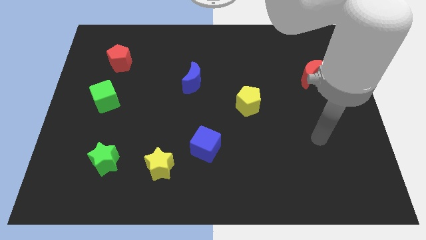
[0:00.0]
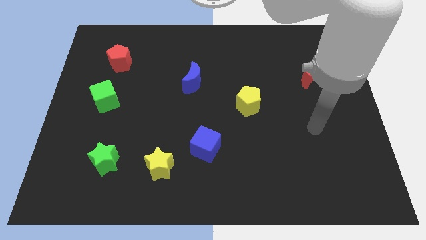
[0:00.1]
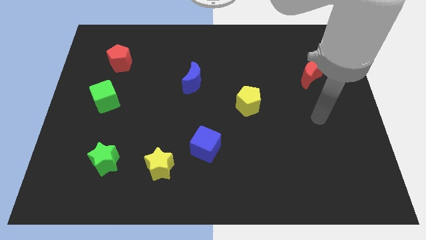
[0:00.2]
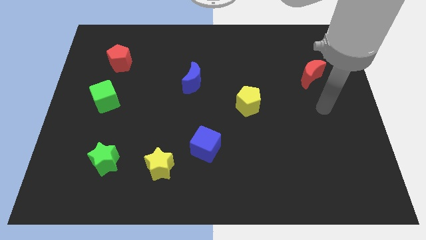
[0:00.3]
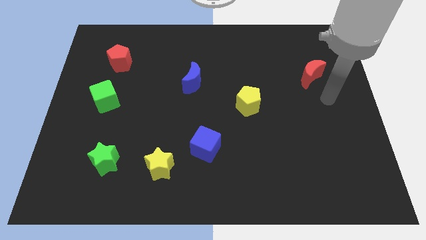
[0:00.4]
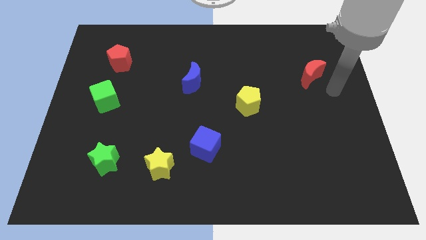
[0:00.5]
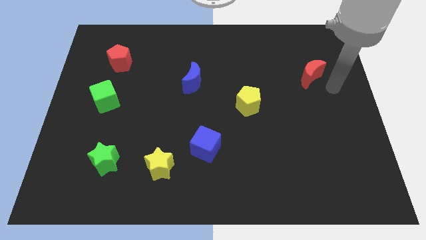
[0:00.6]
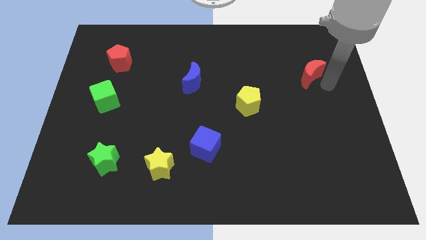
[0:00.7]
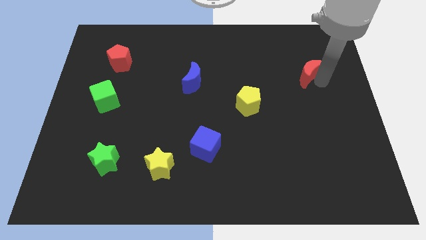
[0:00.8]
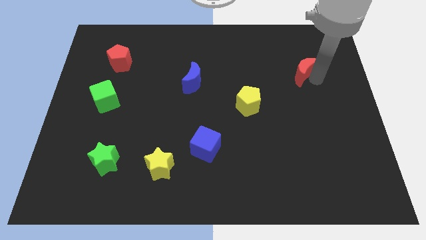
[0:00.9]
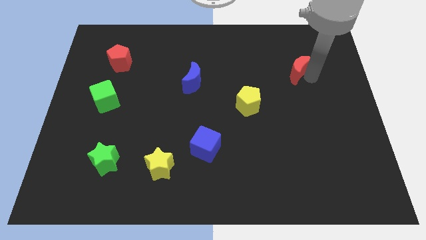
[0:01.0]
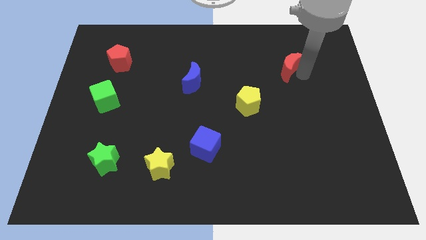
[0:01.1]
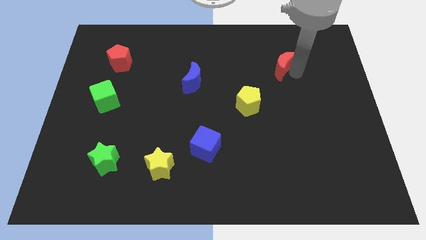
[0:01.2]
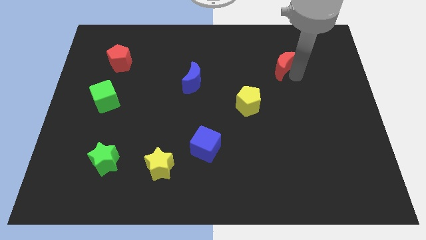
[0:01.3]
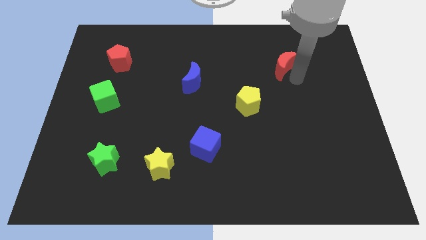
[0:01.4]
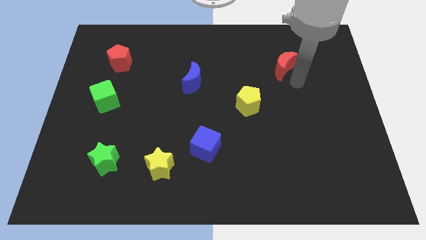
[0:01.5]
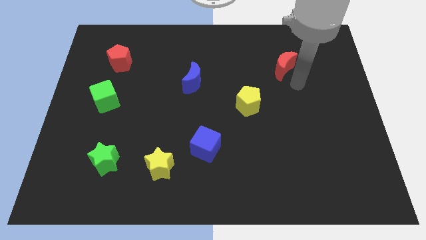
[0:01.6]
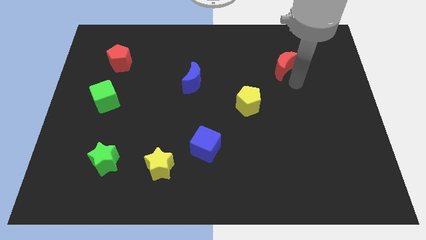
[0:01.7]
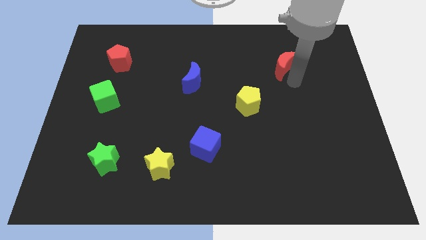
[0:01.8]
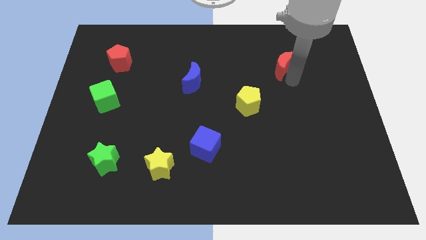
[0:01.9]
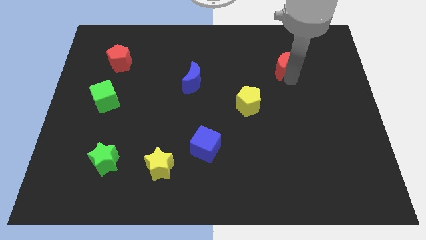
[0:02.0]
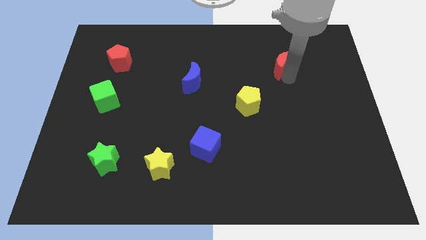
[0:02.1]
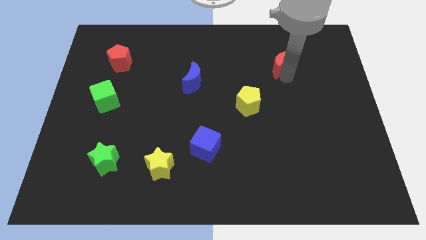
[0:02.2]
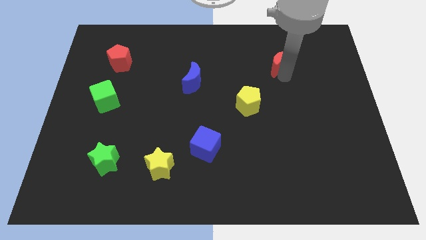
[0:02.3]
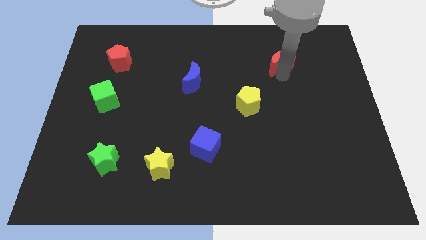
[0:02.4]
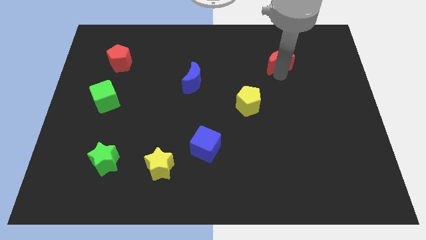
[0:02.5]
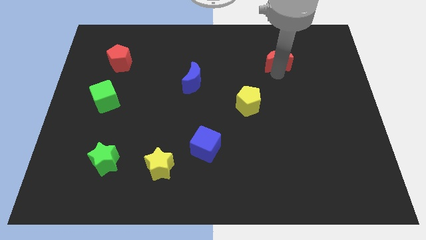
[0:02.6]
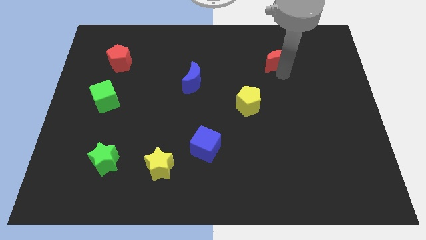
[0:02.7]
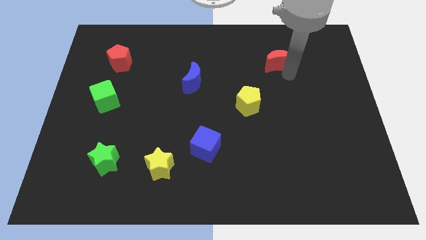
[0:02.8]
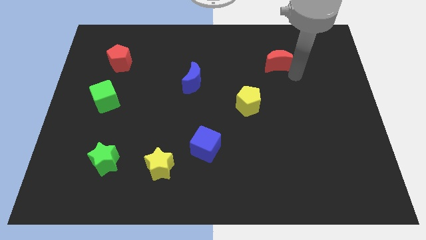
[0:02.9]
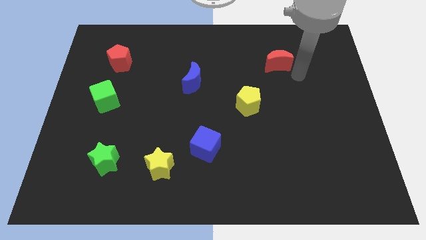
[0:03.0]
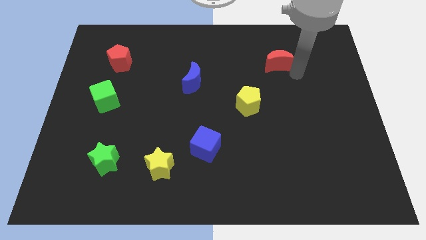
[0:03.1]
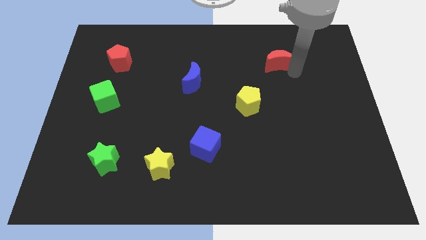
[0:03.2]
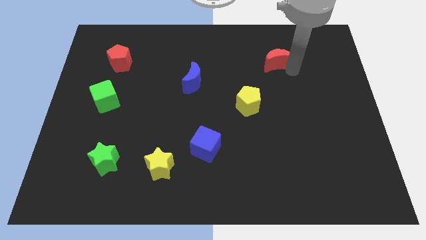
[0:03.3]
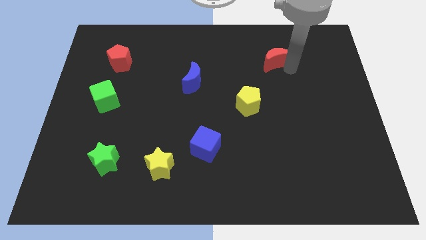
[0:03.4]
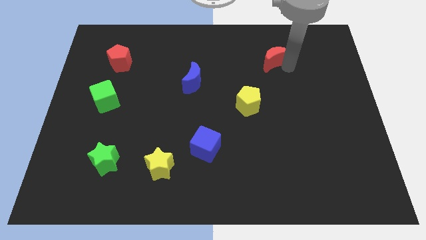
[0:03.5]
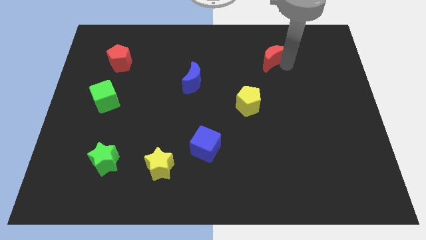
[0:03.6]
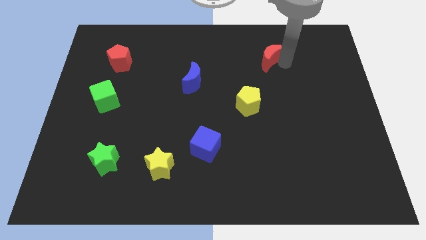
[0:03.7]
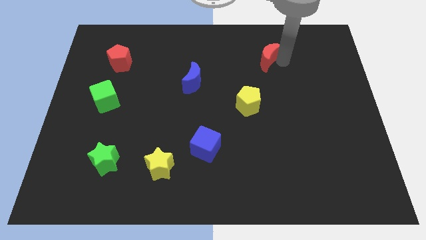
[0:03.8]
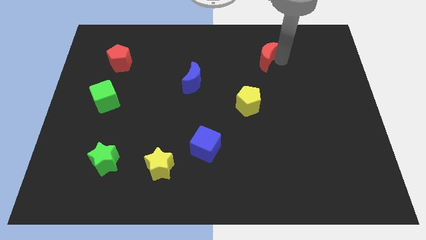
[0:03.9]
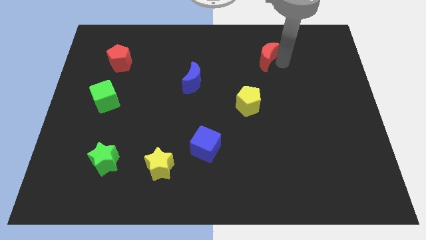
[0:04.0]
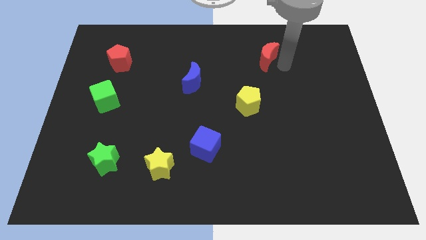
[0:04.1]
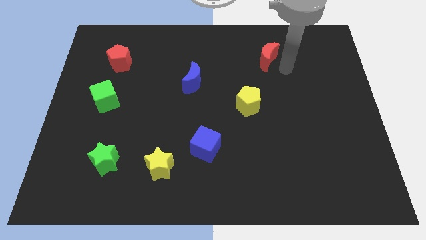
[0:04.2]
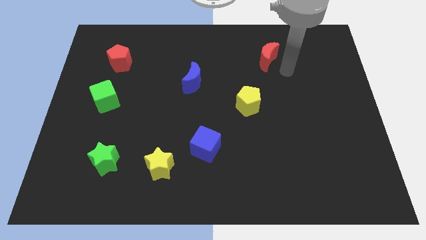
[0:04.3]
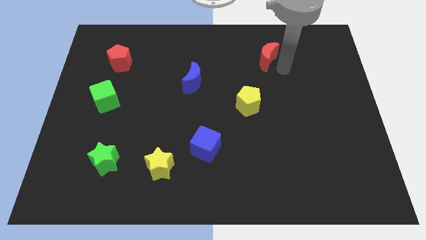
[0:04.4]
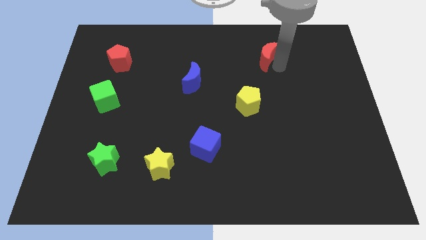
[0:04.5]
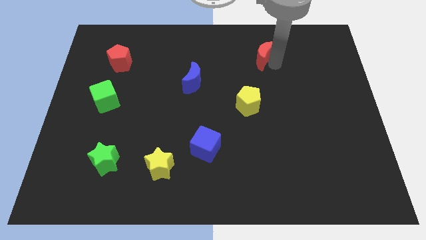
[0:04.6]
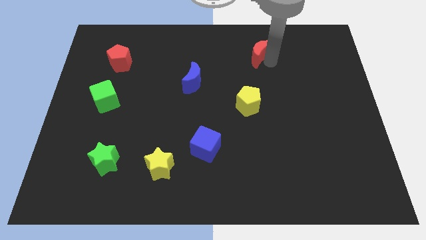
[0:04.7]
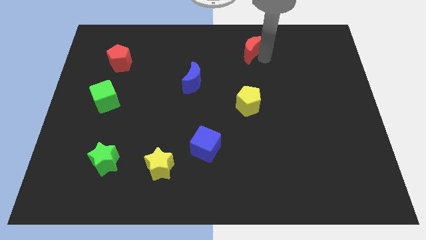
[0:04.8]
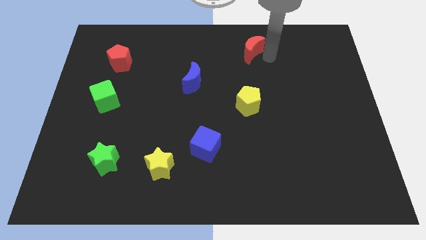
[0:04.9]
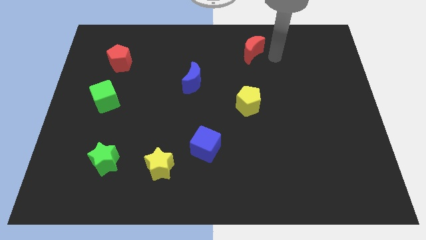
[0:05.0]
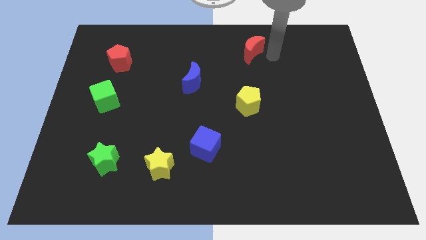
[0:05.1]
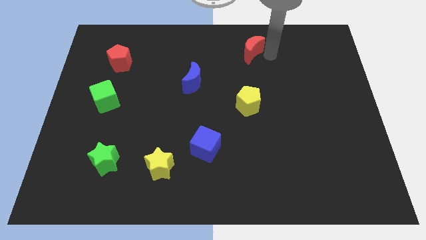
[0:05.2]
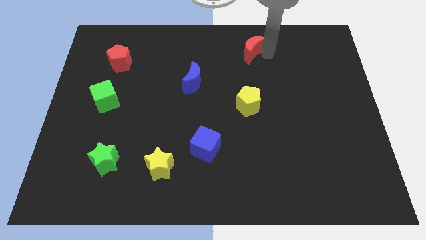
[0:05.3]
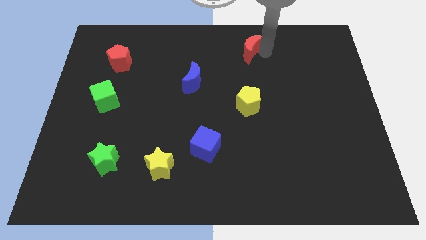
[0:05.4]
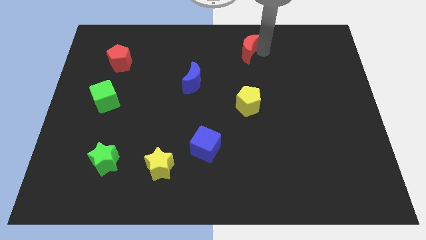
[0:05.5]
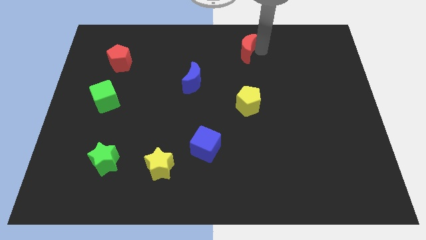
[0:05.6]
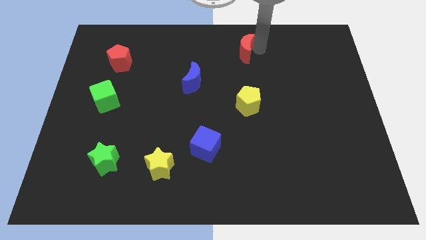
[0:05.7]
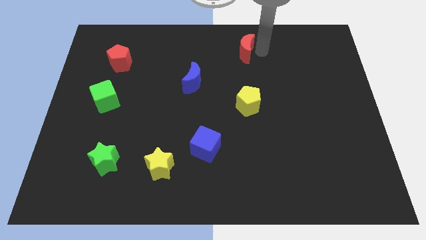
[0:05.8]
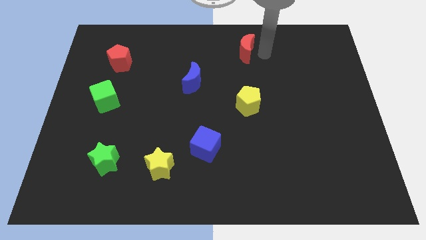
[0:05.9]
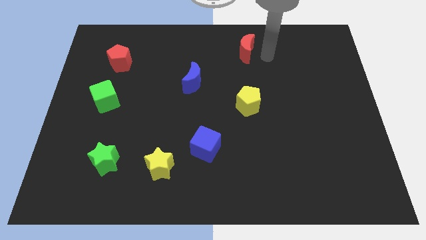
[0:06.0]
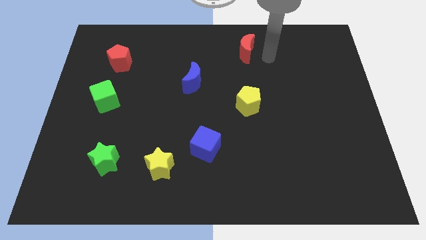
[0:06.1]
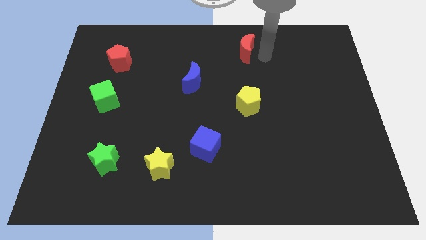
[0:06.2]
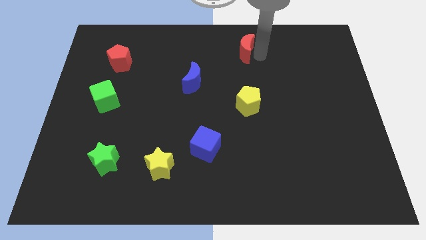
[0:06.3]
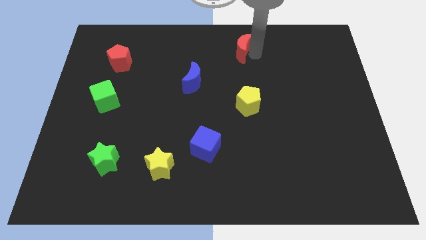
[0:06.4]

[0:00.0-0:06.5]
slide the red moon to the top
